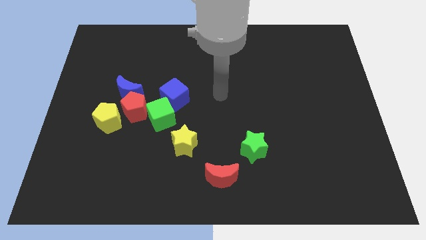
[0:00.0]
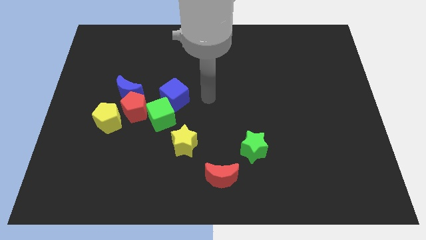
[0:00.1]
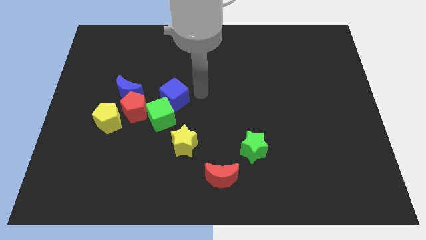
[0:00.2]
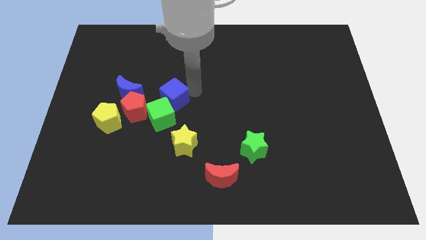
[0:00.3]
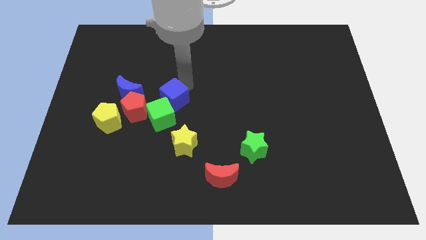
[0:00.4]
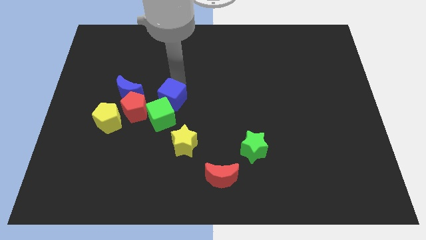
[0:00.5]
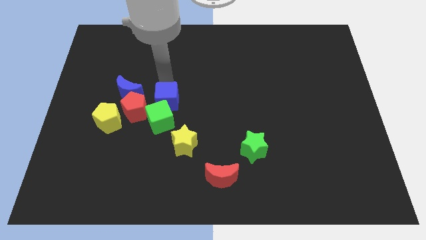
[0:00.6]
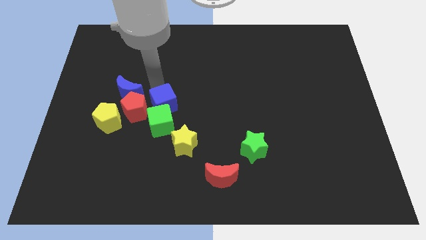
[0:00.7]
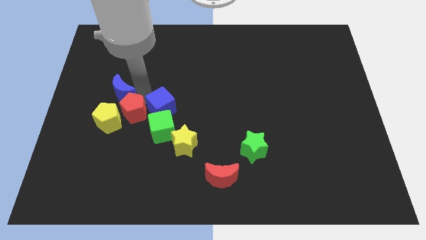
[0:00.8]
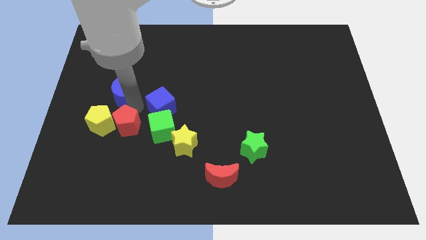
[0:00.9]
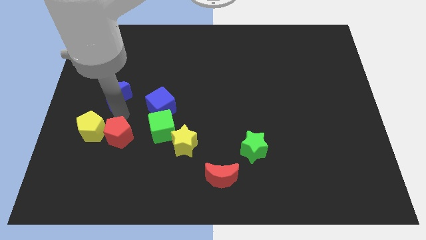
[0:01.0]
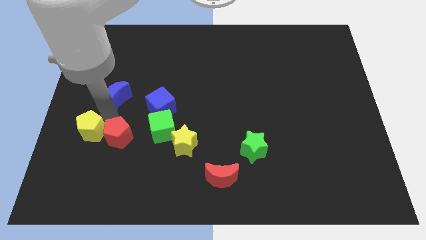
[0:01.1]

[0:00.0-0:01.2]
move the blue moon away from the red pentagon and yellow pentagon

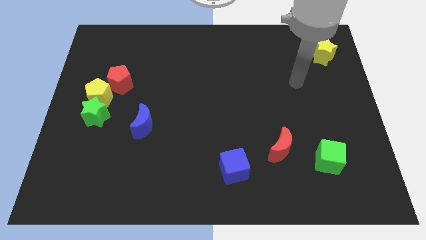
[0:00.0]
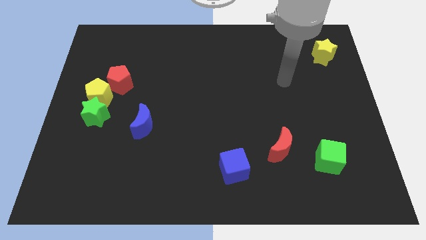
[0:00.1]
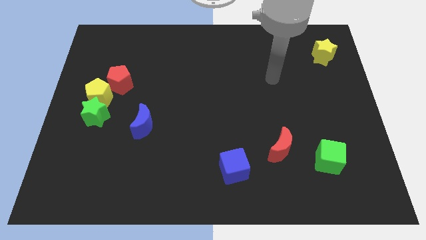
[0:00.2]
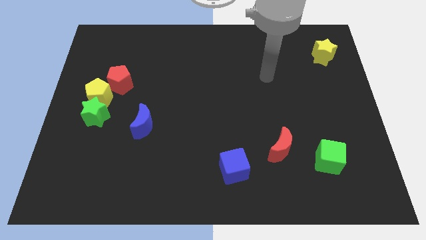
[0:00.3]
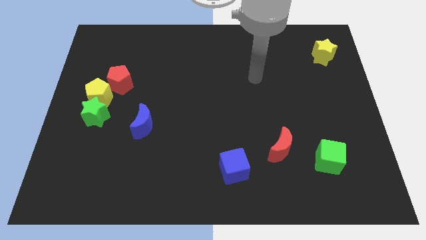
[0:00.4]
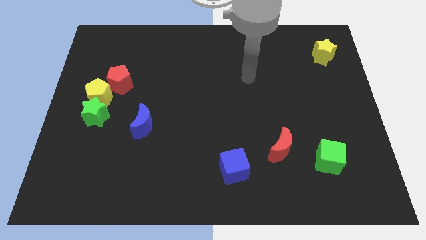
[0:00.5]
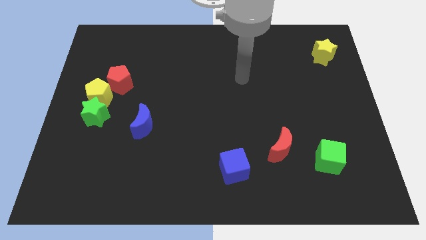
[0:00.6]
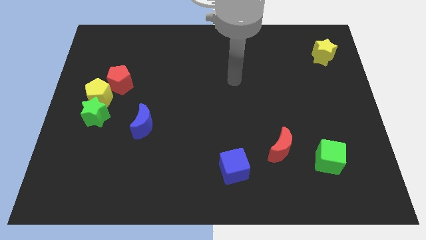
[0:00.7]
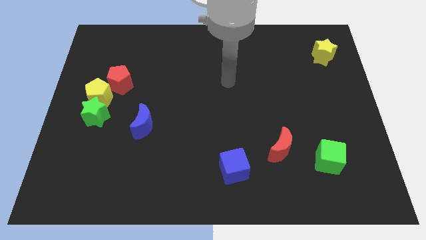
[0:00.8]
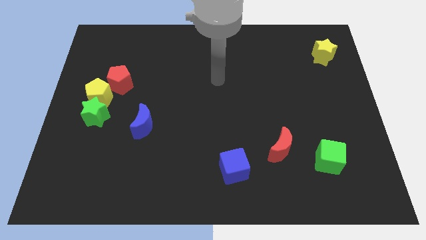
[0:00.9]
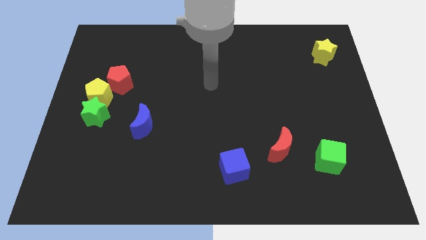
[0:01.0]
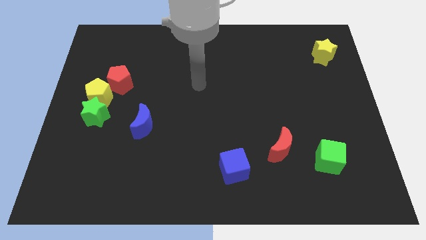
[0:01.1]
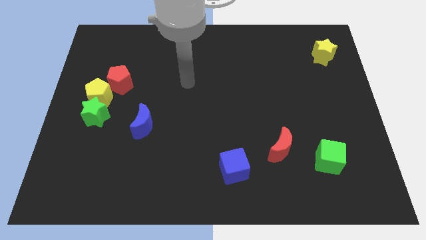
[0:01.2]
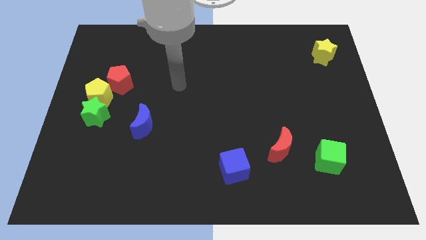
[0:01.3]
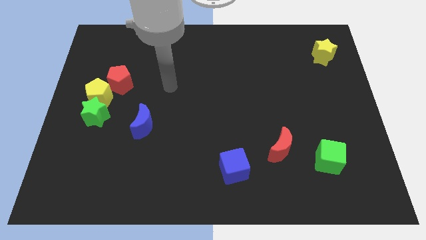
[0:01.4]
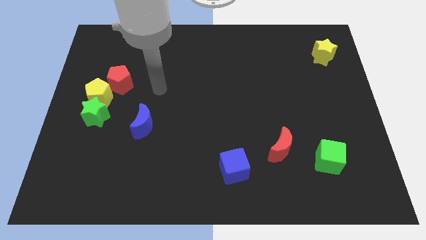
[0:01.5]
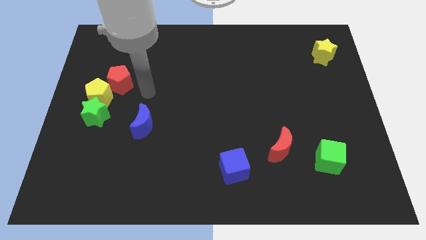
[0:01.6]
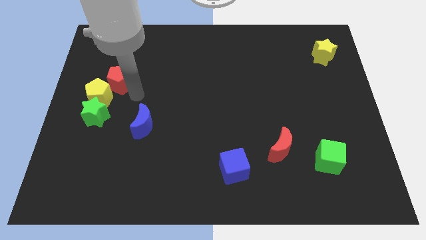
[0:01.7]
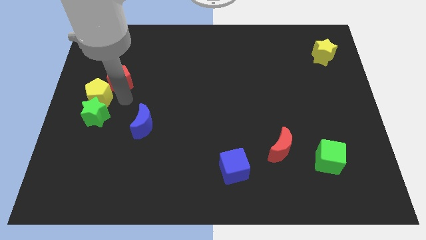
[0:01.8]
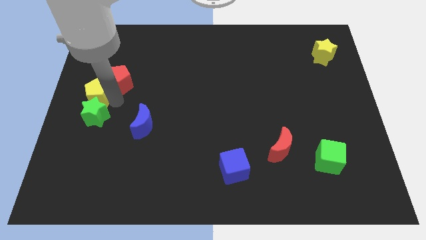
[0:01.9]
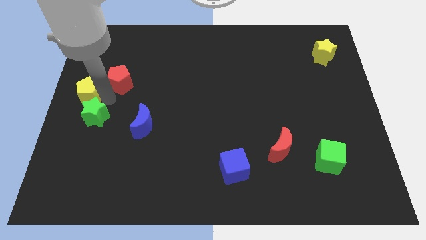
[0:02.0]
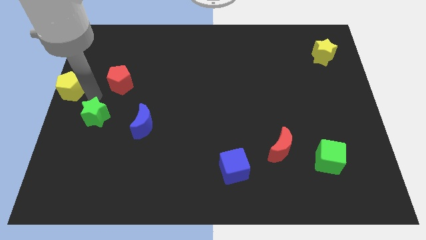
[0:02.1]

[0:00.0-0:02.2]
pull the green star apart from the yellow pentagon

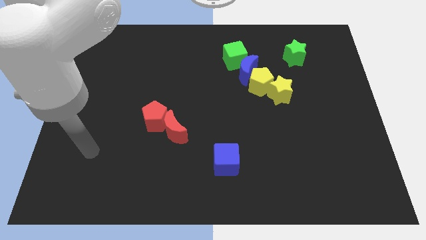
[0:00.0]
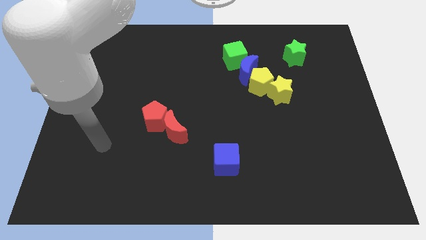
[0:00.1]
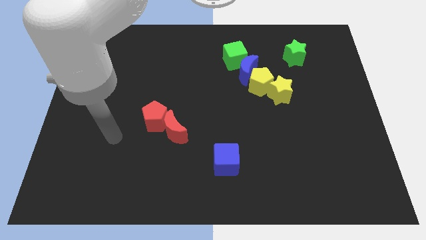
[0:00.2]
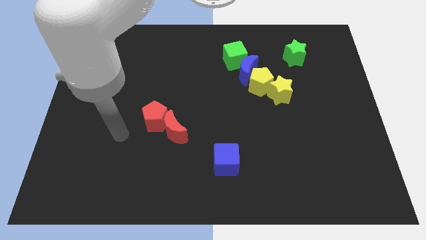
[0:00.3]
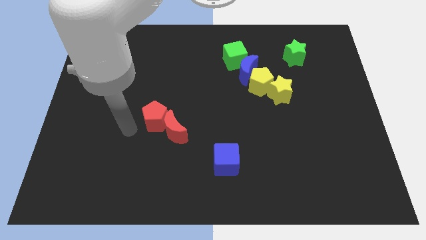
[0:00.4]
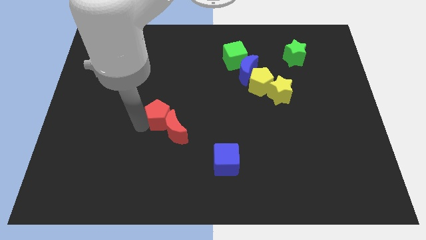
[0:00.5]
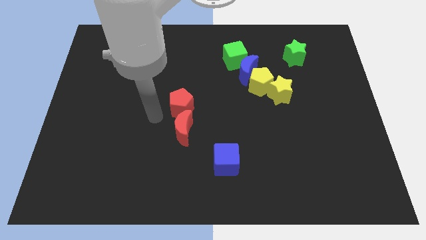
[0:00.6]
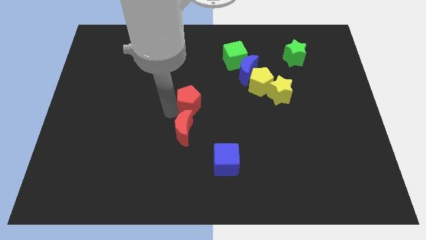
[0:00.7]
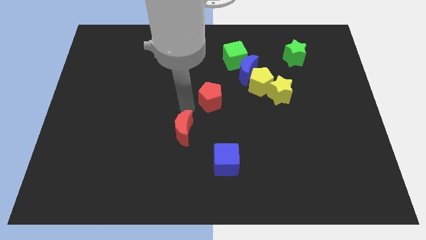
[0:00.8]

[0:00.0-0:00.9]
pull the red moon apart from the red pentagon

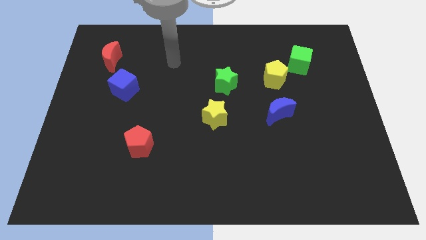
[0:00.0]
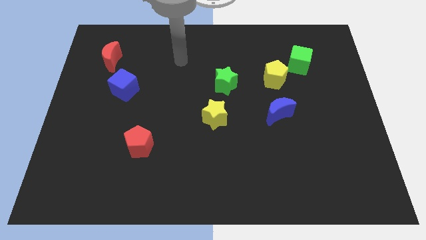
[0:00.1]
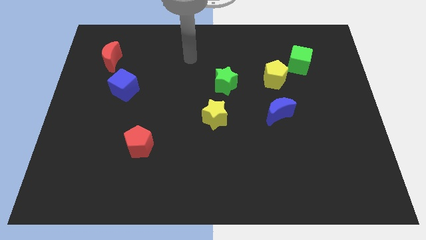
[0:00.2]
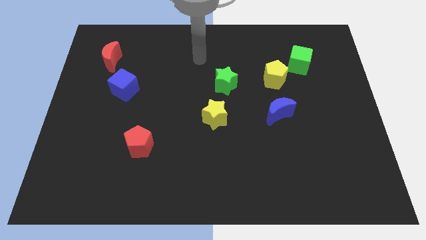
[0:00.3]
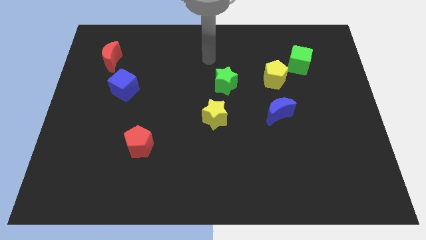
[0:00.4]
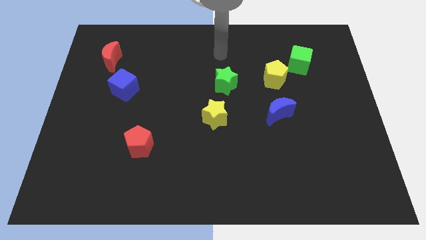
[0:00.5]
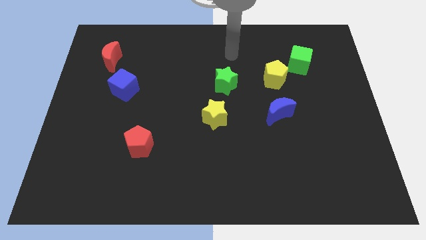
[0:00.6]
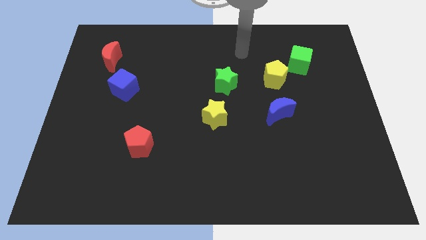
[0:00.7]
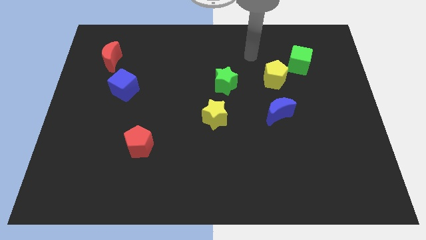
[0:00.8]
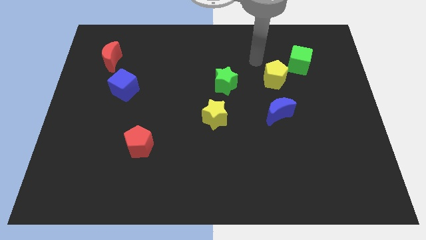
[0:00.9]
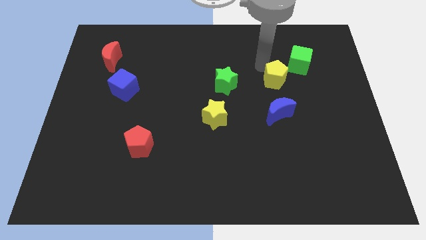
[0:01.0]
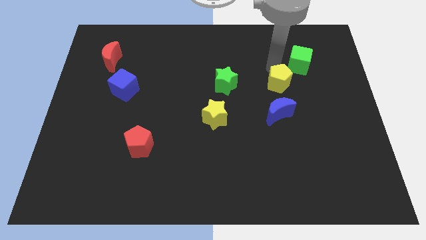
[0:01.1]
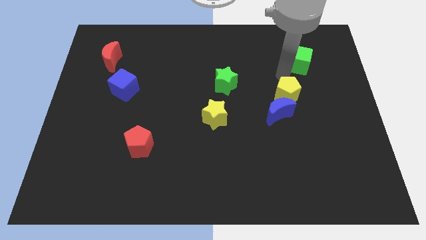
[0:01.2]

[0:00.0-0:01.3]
separate the green cube from the yellow pentagon

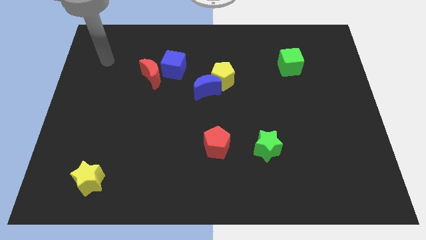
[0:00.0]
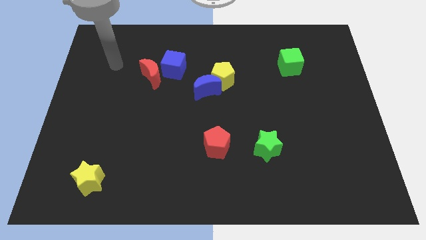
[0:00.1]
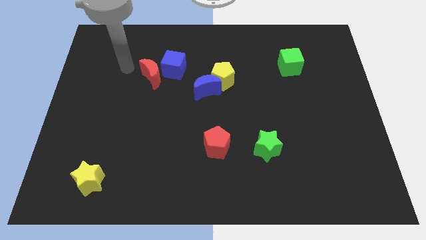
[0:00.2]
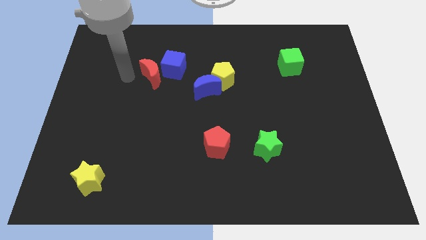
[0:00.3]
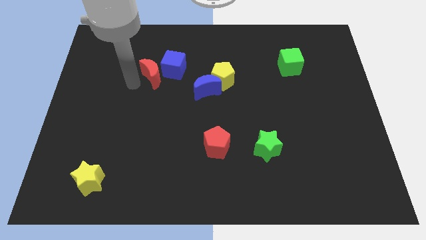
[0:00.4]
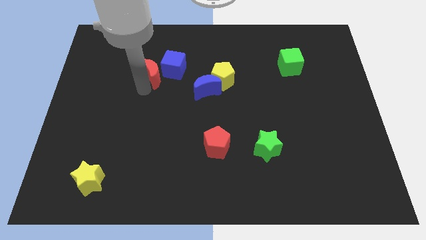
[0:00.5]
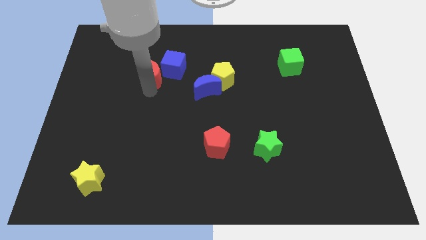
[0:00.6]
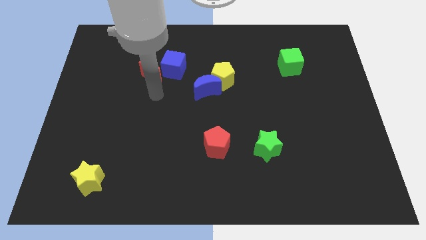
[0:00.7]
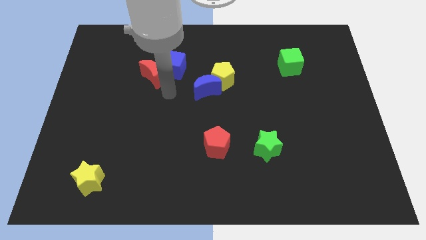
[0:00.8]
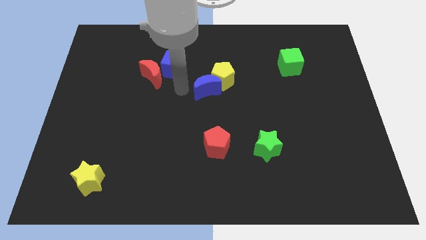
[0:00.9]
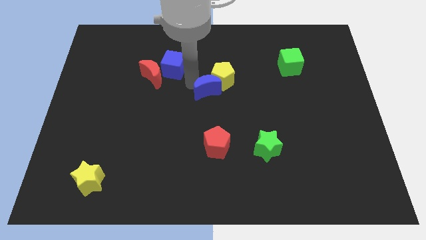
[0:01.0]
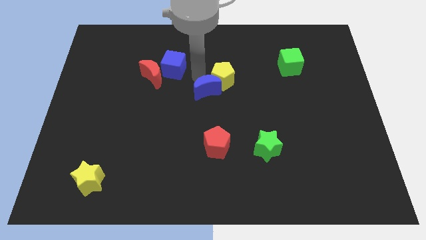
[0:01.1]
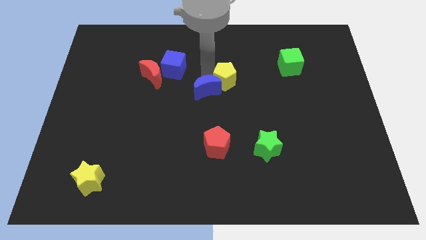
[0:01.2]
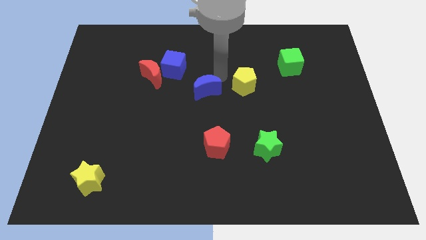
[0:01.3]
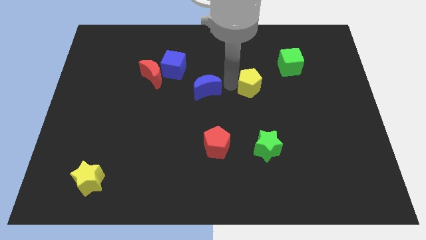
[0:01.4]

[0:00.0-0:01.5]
move the blue moon away from the yellow pentagon

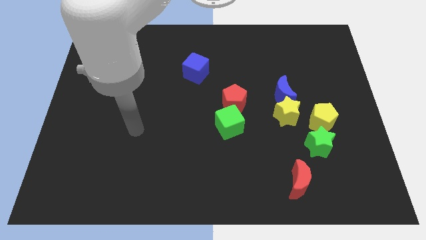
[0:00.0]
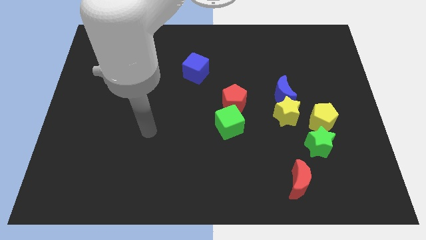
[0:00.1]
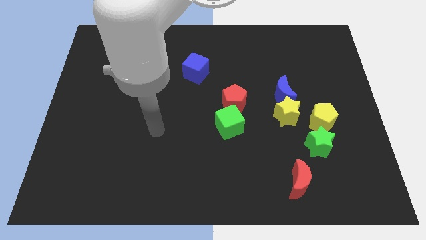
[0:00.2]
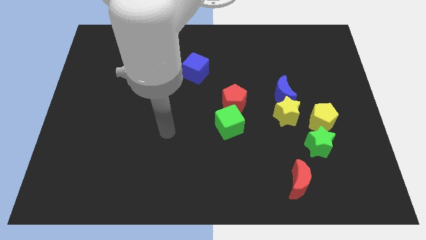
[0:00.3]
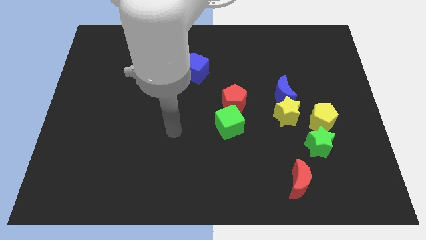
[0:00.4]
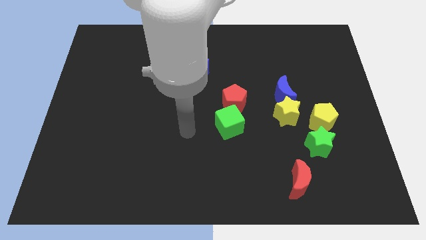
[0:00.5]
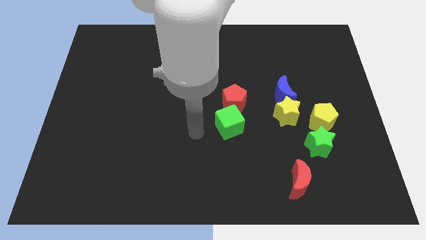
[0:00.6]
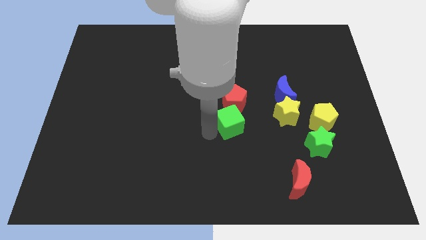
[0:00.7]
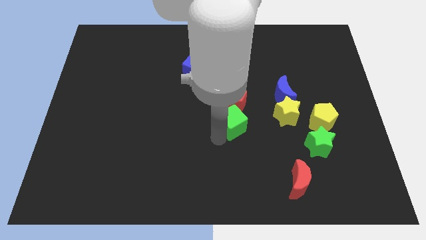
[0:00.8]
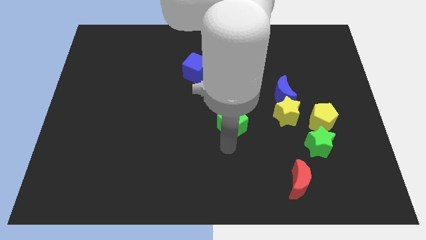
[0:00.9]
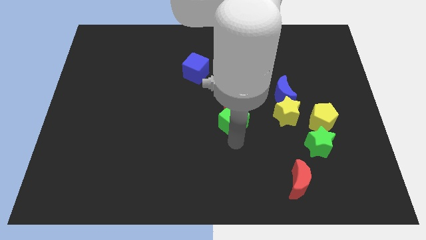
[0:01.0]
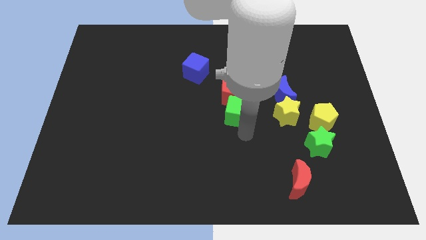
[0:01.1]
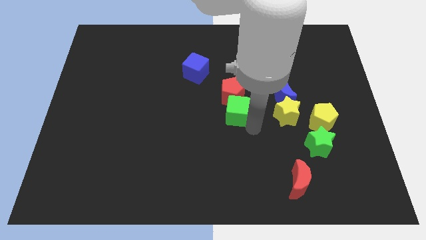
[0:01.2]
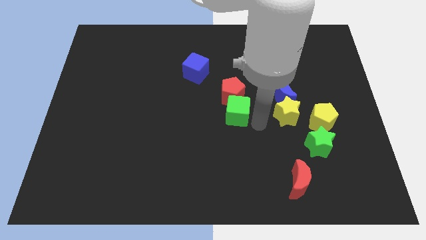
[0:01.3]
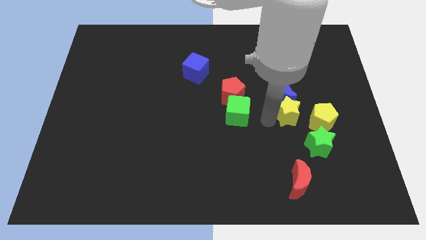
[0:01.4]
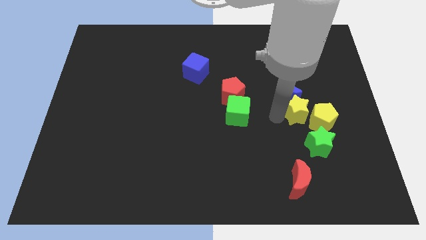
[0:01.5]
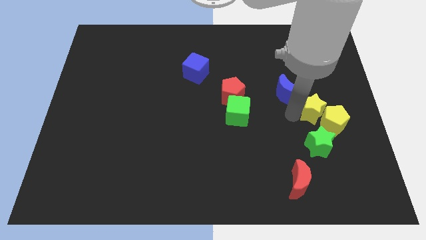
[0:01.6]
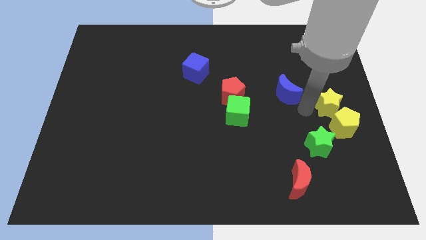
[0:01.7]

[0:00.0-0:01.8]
pull the blue moon apart from the yellow star

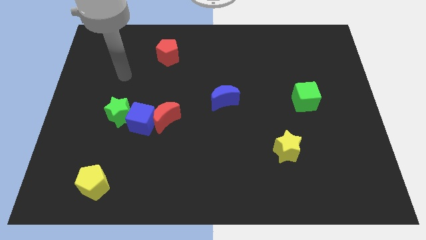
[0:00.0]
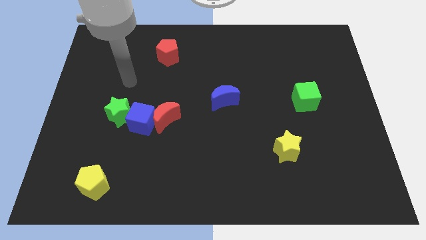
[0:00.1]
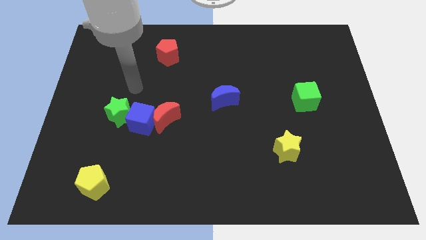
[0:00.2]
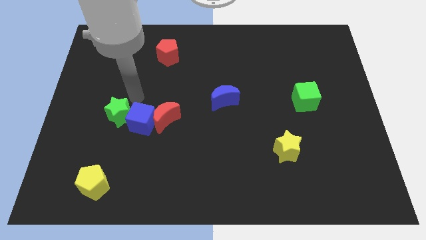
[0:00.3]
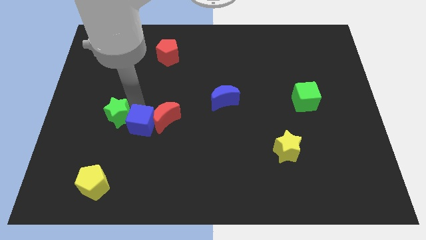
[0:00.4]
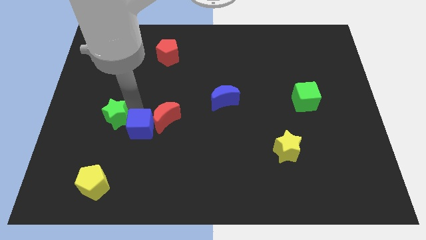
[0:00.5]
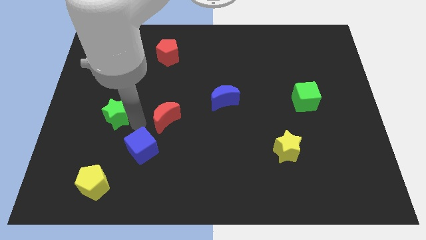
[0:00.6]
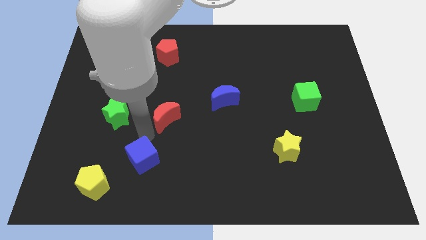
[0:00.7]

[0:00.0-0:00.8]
separate the red moon from the blue cube
